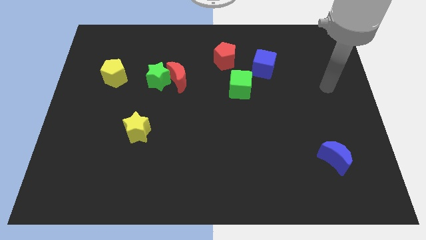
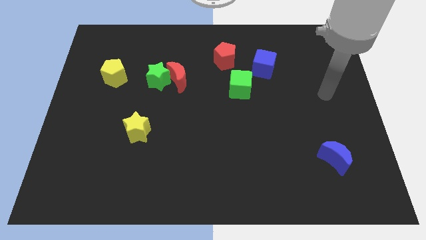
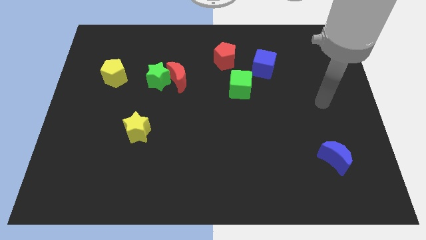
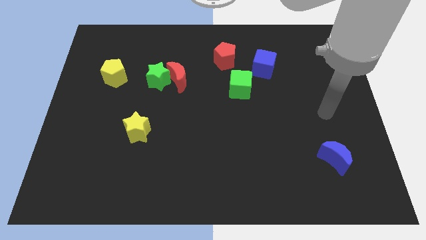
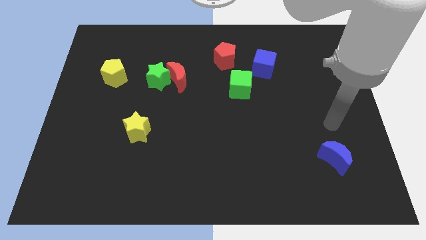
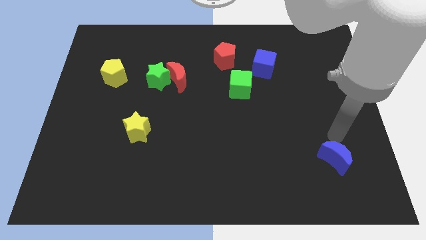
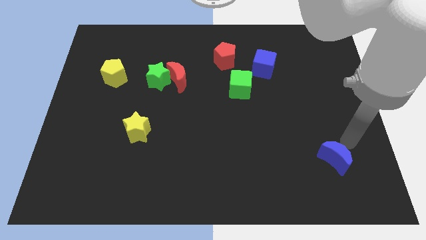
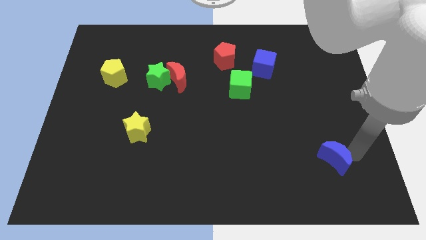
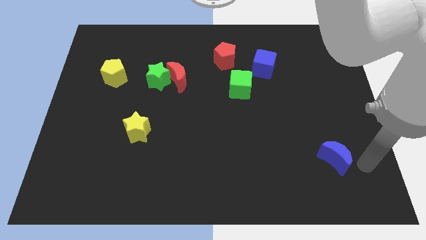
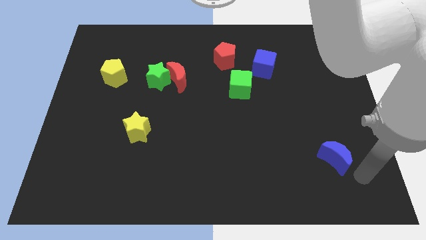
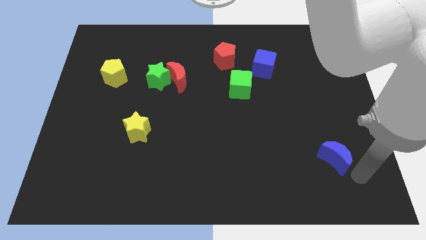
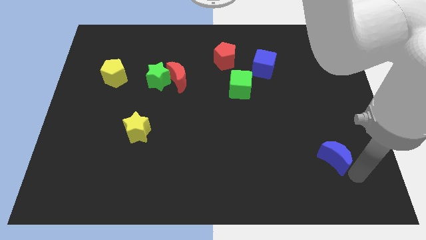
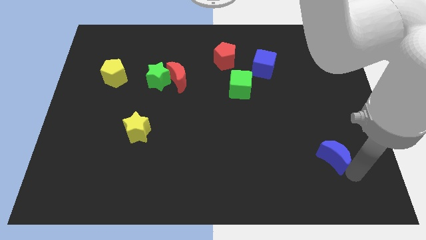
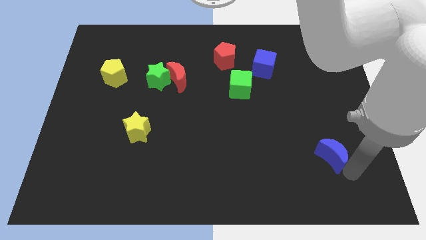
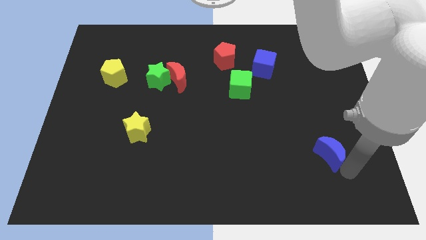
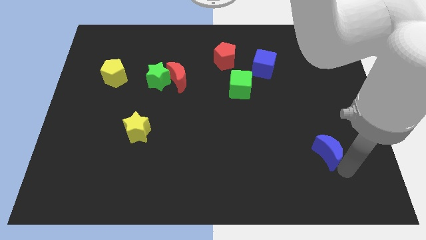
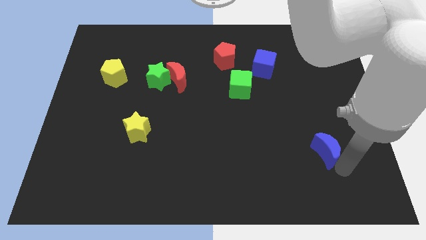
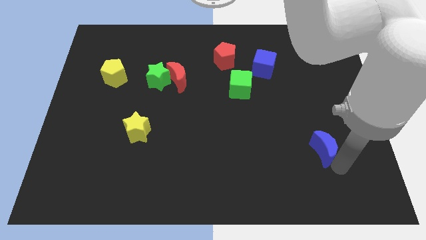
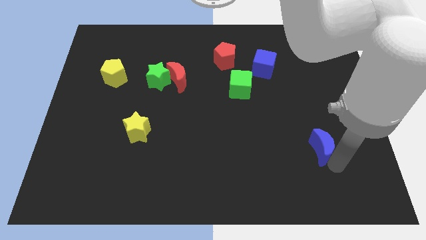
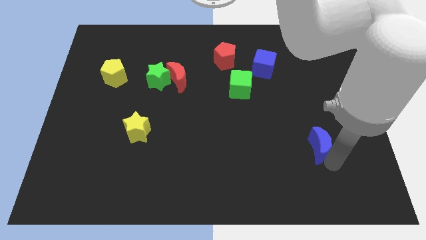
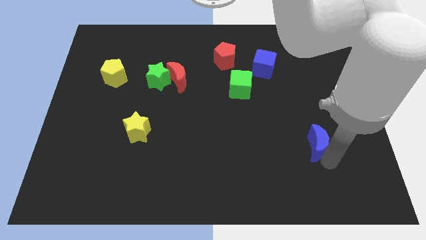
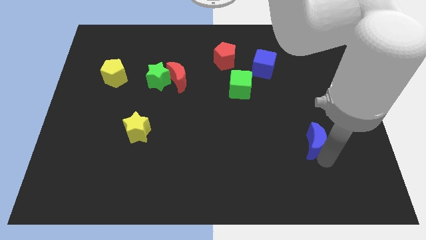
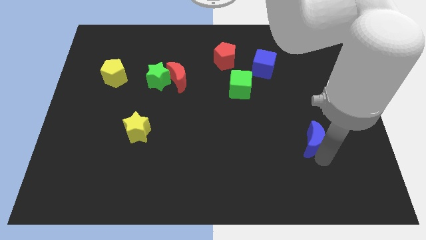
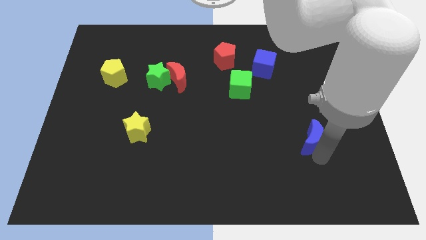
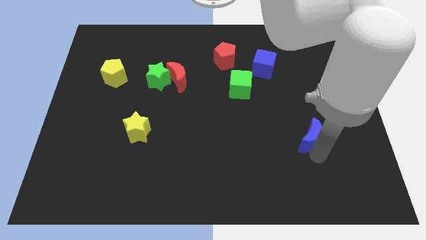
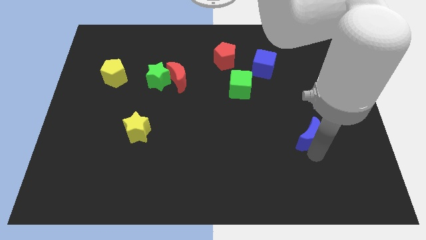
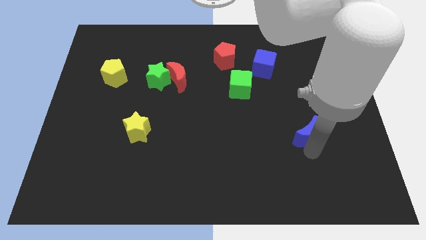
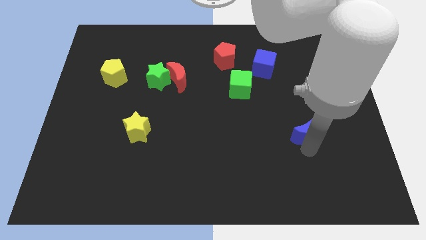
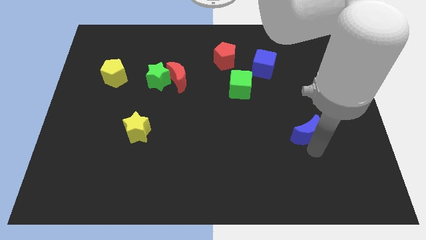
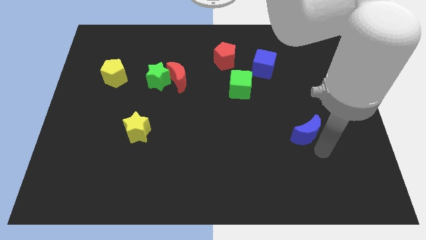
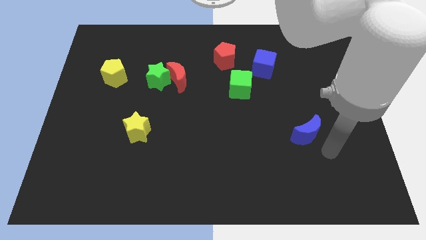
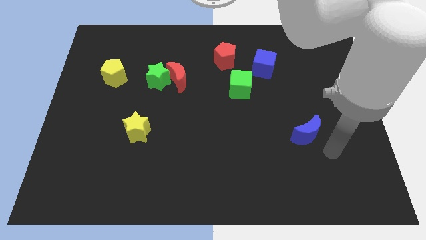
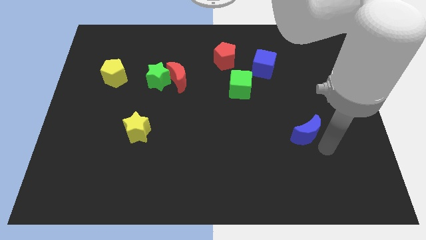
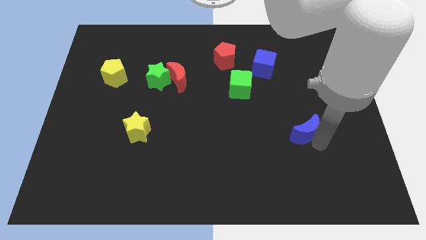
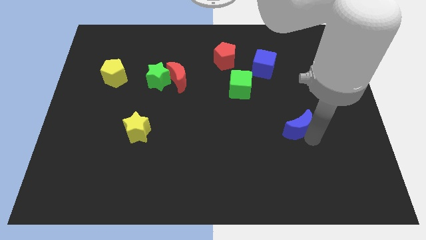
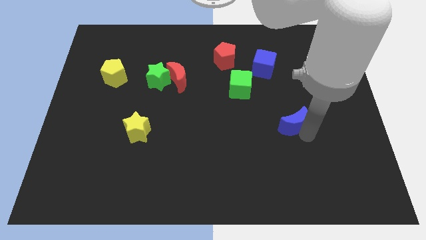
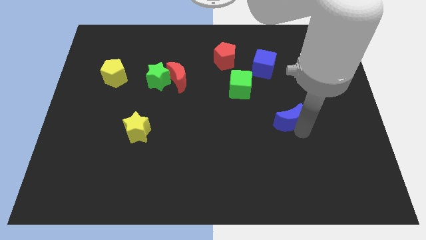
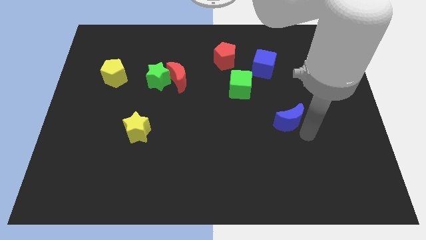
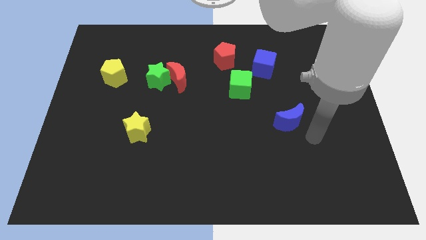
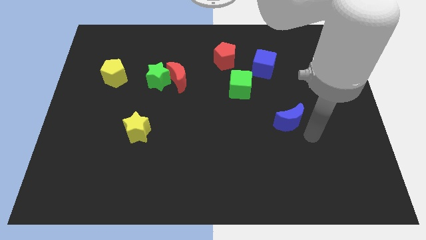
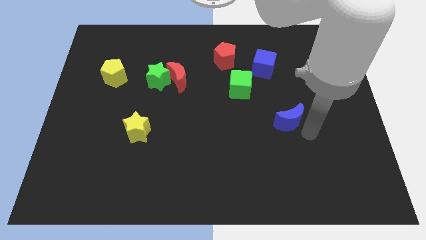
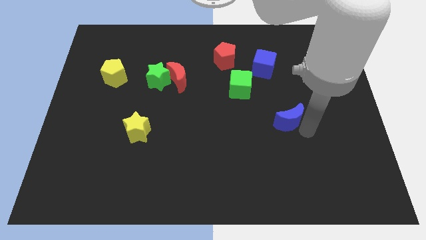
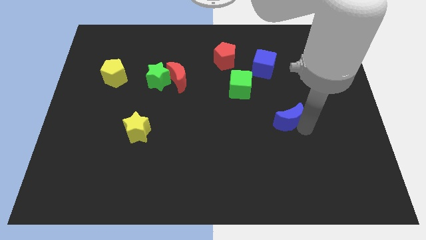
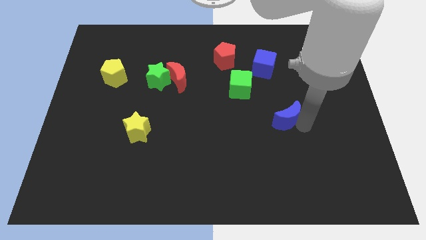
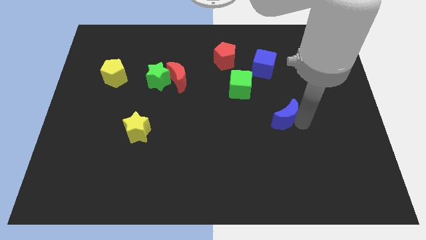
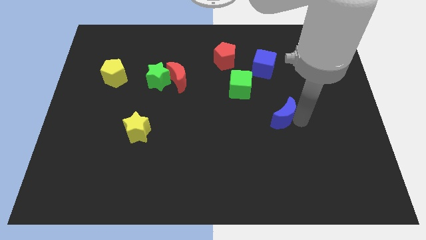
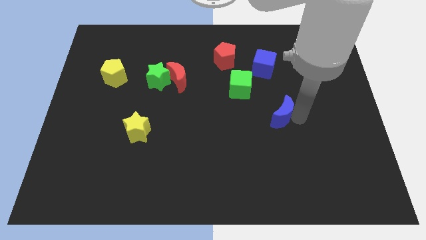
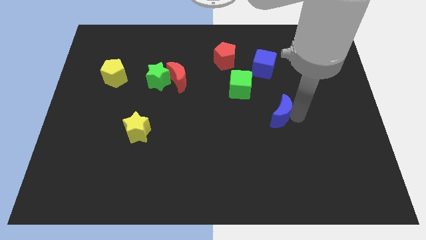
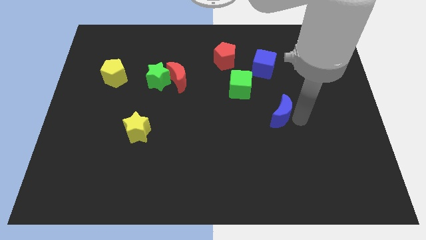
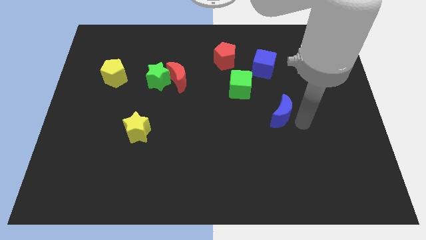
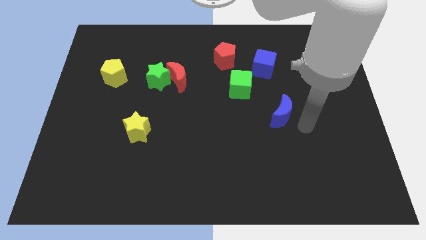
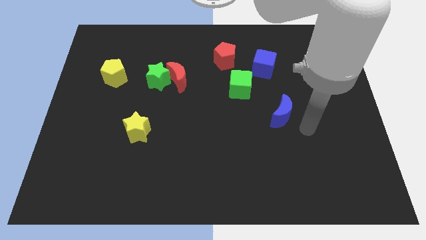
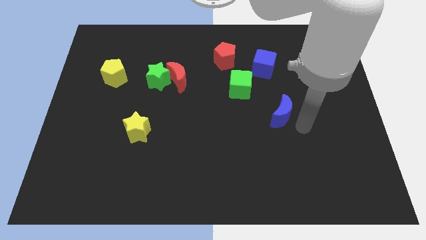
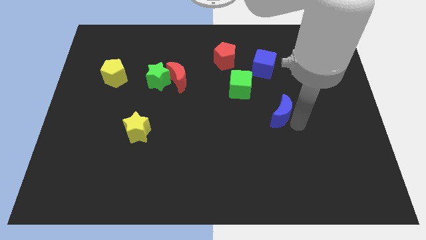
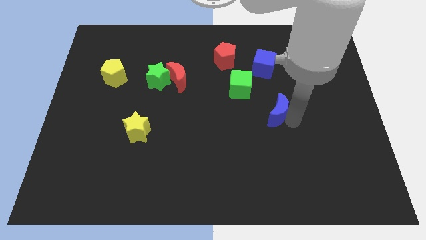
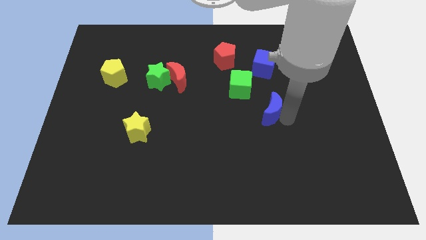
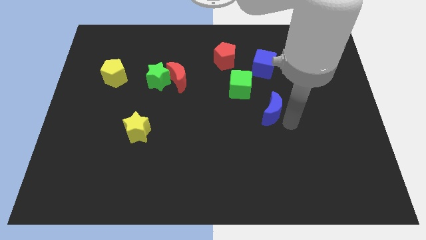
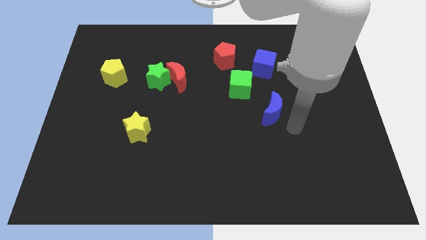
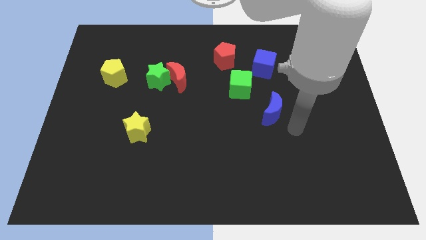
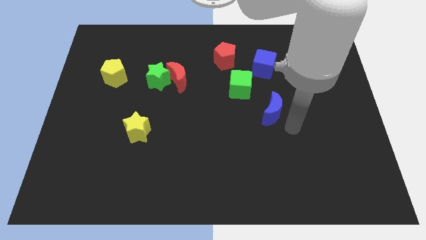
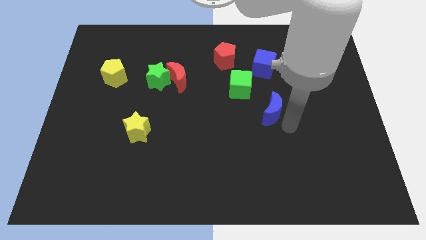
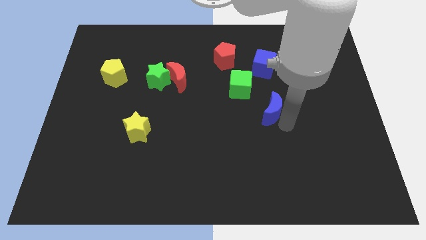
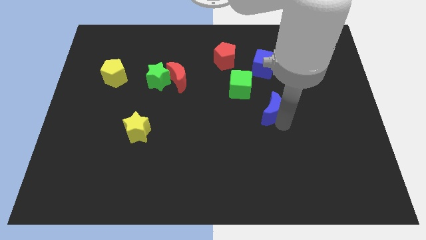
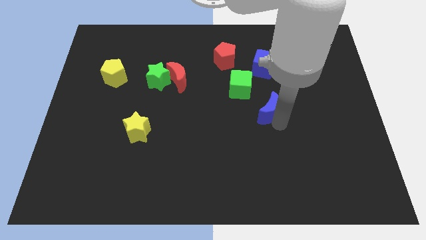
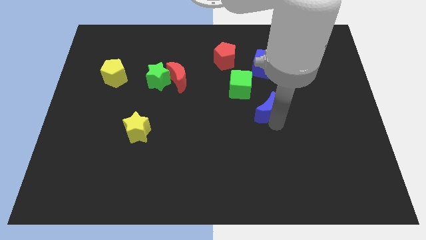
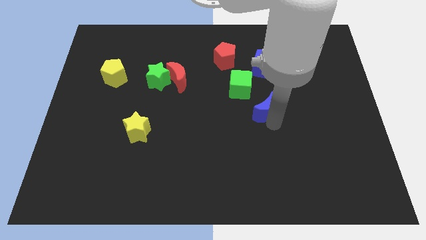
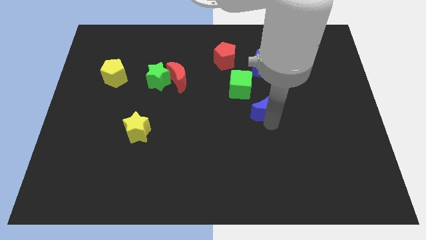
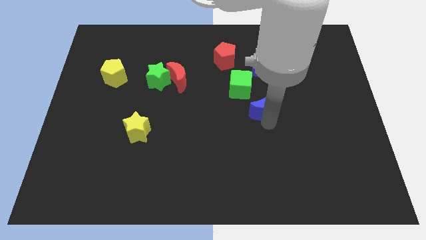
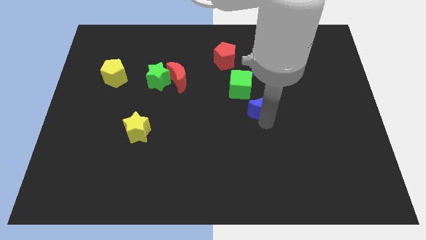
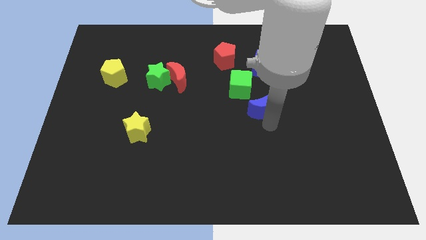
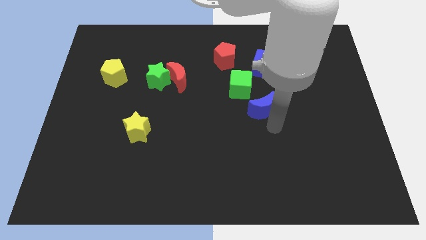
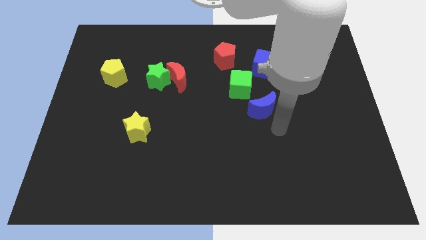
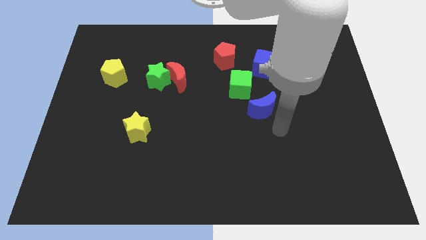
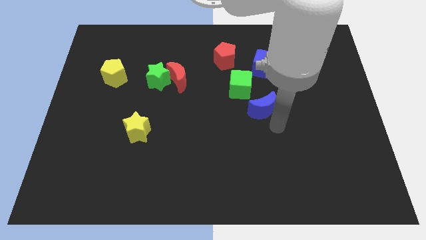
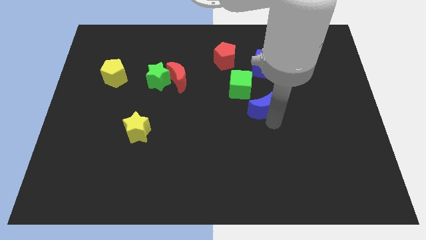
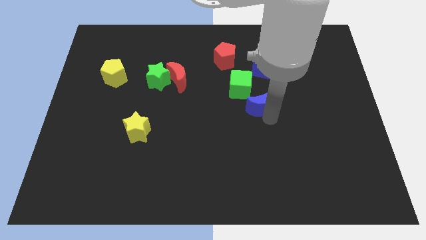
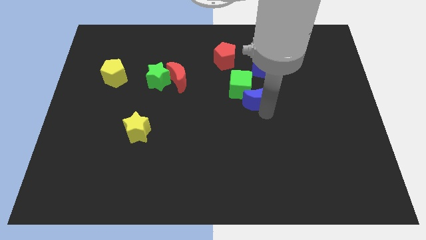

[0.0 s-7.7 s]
put the blue moon towards the green cube
